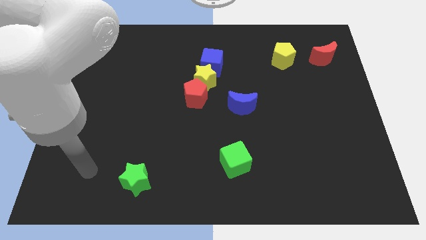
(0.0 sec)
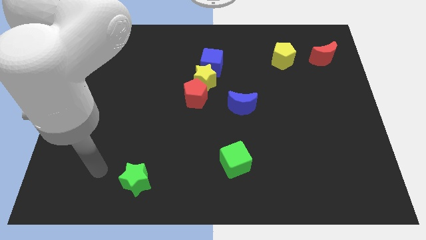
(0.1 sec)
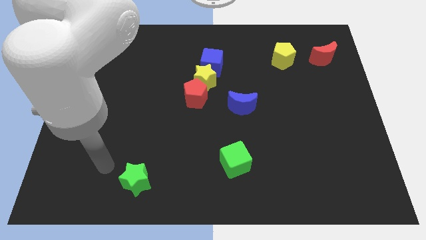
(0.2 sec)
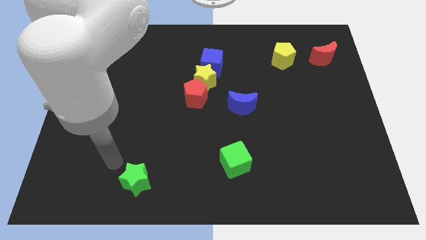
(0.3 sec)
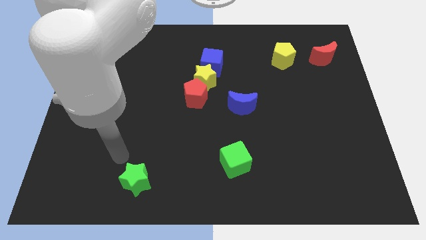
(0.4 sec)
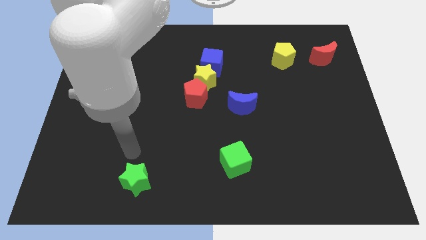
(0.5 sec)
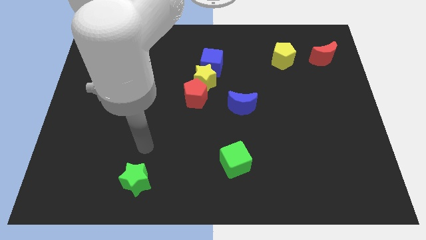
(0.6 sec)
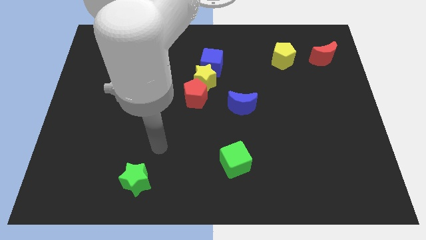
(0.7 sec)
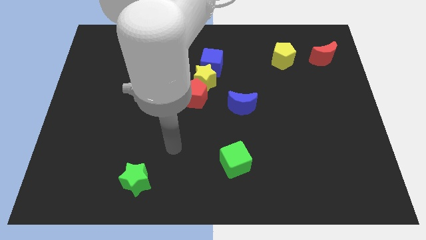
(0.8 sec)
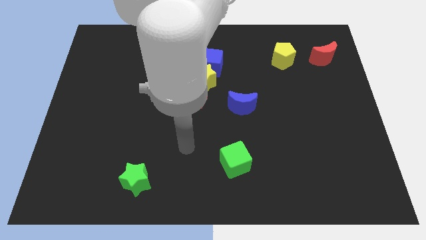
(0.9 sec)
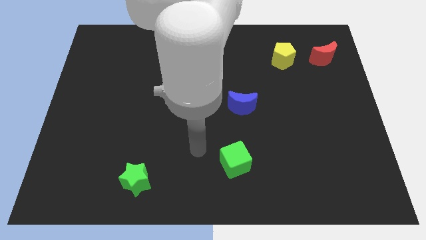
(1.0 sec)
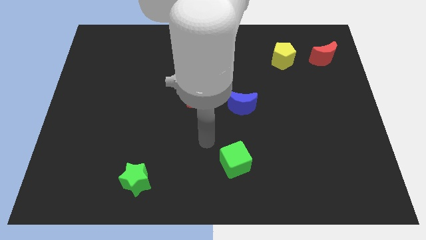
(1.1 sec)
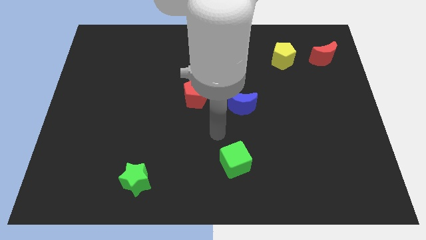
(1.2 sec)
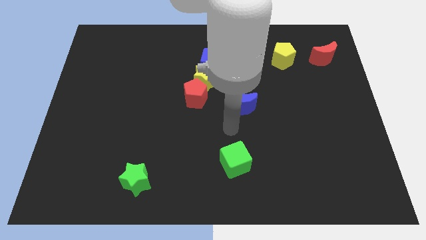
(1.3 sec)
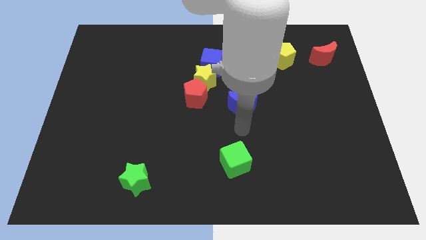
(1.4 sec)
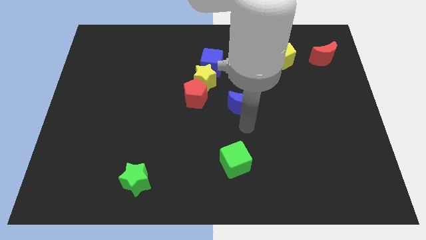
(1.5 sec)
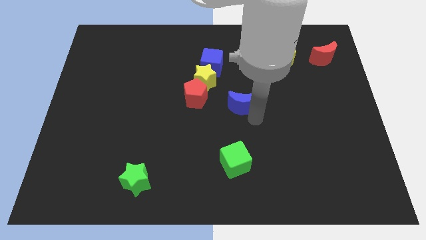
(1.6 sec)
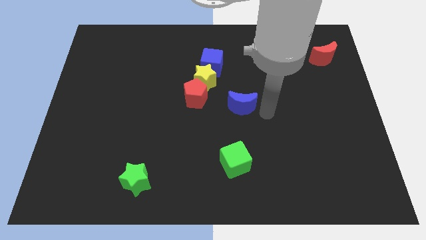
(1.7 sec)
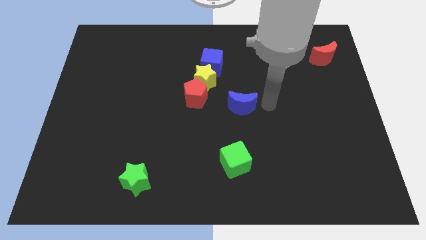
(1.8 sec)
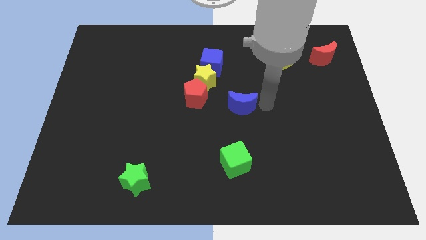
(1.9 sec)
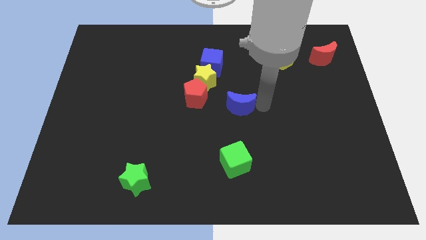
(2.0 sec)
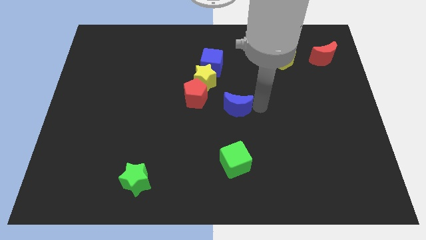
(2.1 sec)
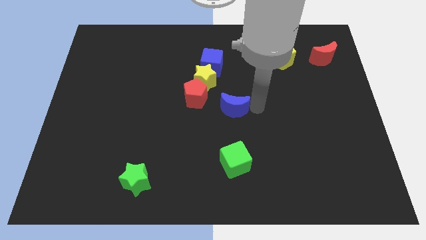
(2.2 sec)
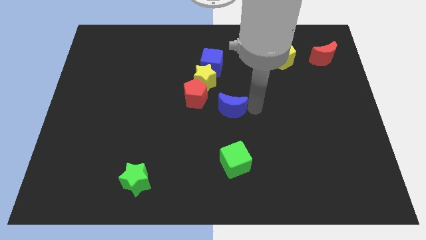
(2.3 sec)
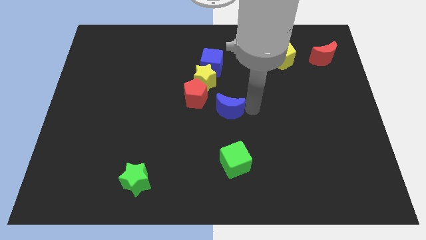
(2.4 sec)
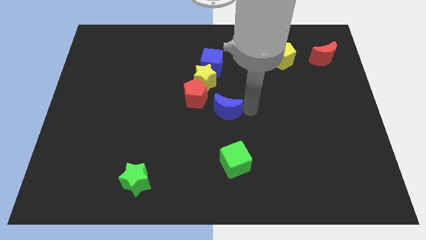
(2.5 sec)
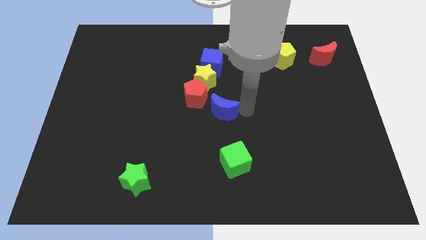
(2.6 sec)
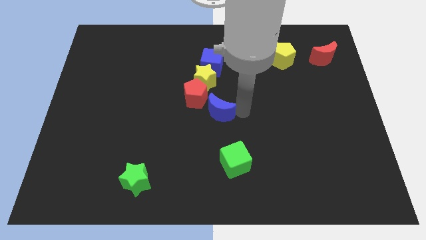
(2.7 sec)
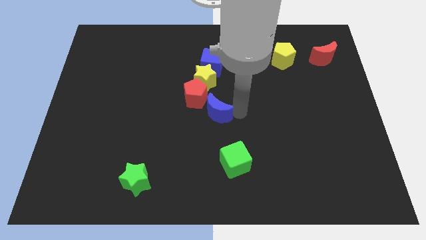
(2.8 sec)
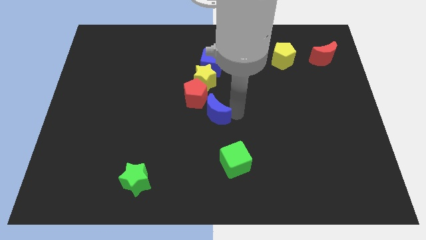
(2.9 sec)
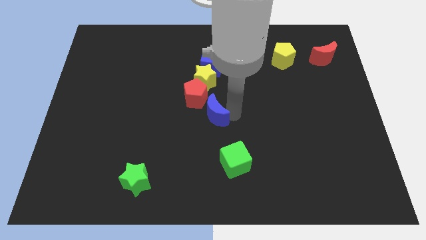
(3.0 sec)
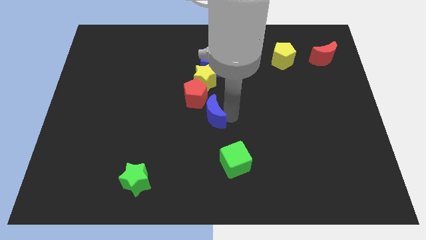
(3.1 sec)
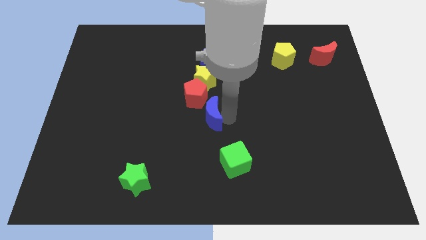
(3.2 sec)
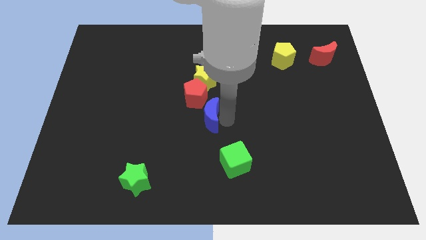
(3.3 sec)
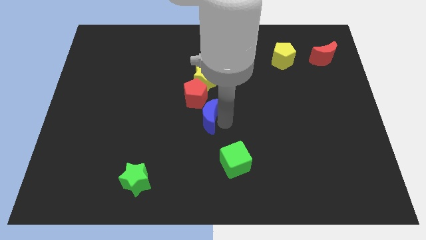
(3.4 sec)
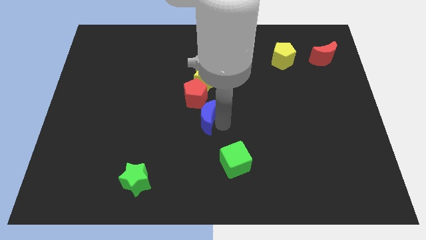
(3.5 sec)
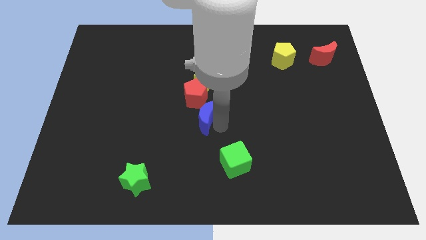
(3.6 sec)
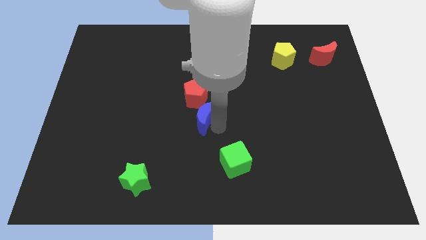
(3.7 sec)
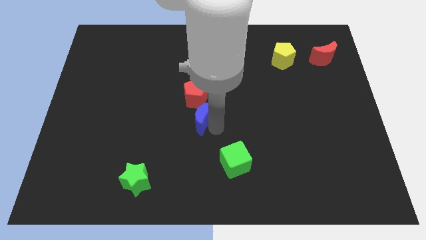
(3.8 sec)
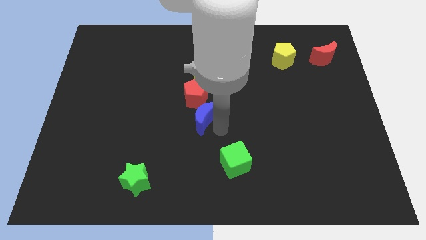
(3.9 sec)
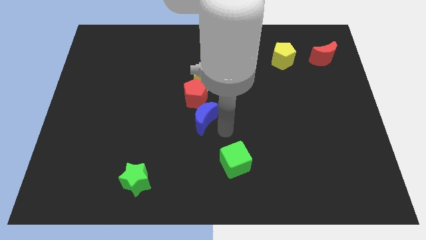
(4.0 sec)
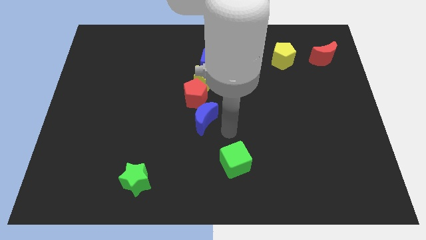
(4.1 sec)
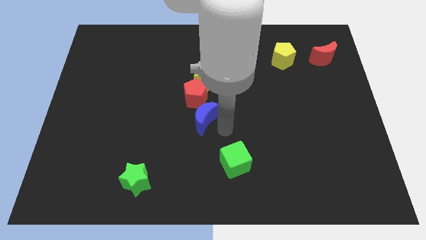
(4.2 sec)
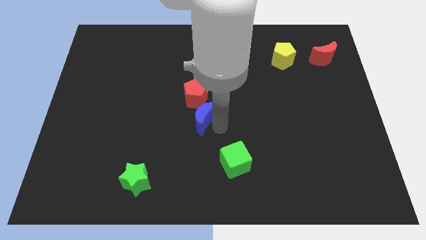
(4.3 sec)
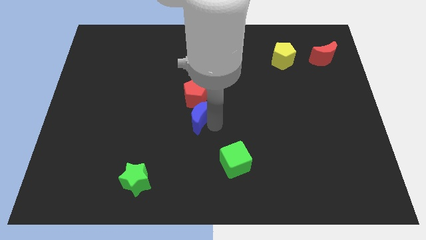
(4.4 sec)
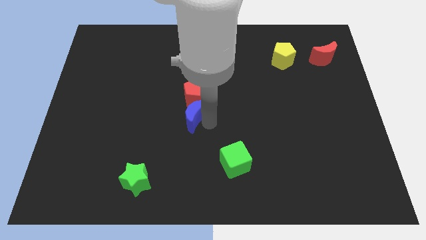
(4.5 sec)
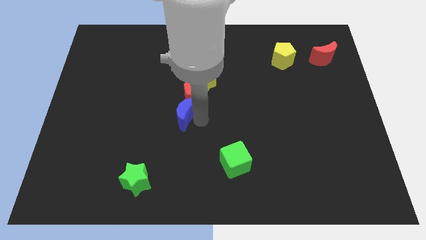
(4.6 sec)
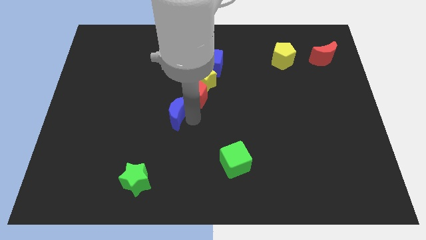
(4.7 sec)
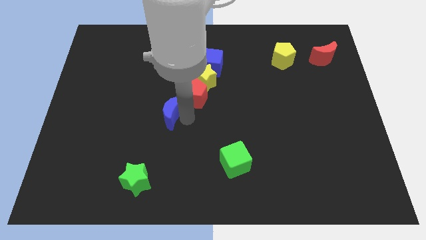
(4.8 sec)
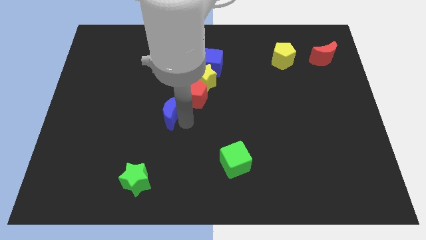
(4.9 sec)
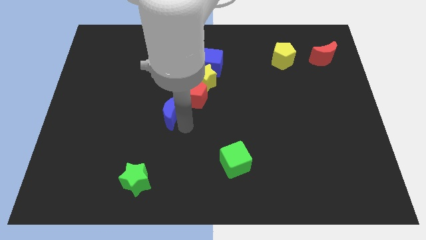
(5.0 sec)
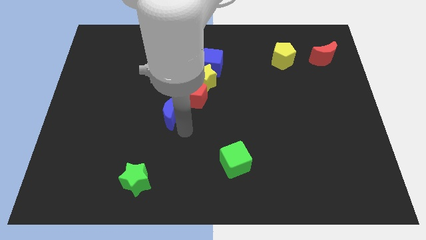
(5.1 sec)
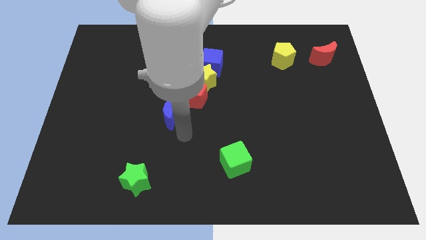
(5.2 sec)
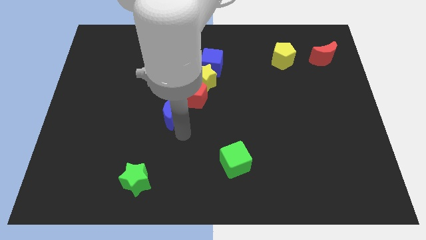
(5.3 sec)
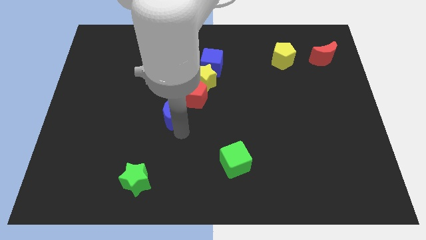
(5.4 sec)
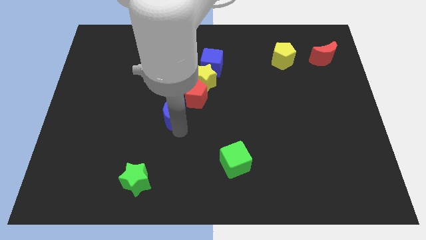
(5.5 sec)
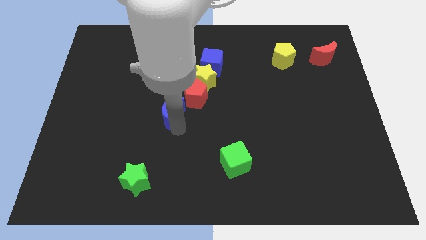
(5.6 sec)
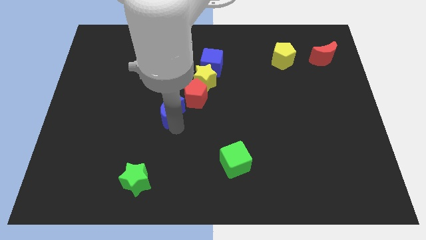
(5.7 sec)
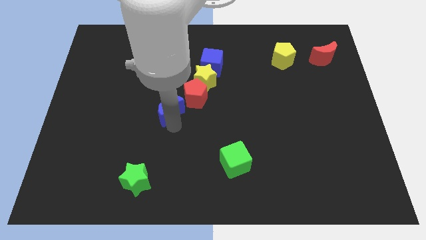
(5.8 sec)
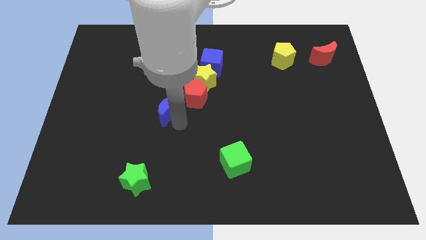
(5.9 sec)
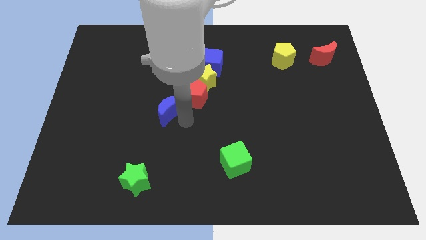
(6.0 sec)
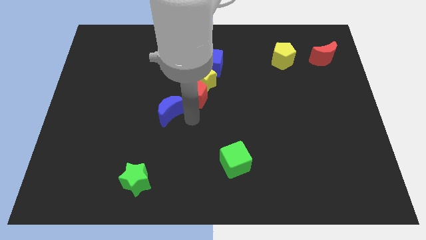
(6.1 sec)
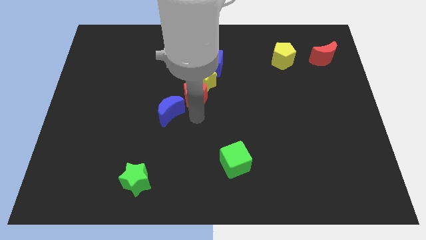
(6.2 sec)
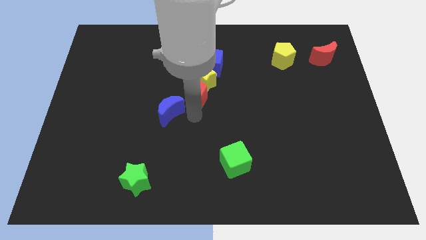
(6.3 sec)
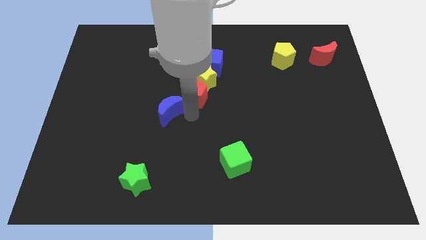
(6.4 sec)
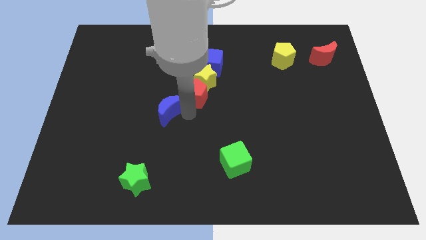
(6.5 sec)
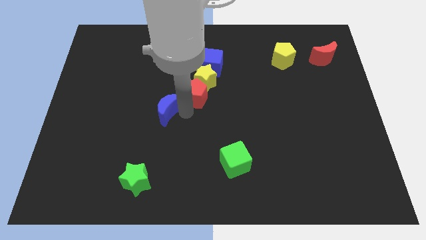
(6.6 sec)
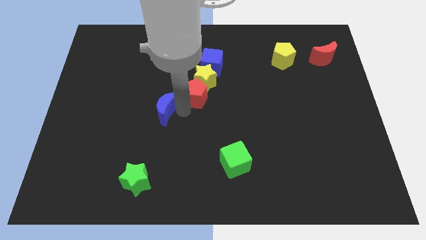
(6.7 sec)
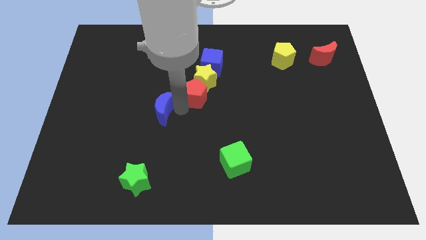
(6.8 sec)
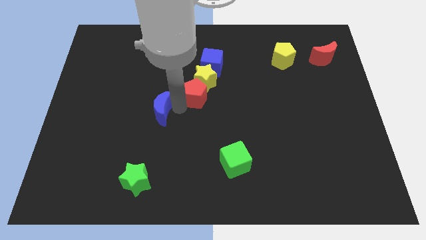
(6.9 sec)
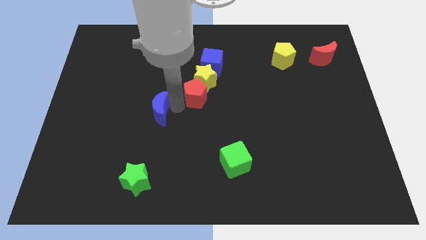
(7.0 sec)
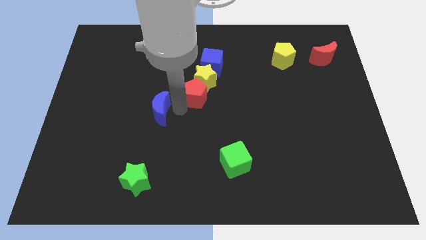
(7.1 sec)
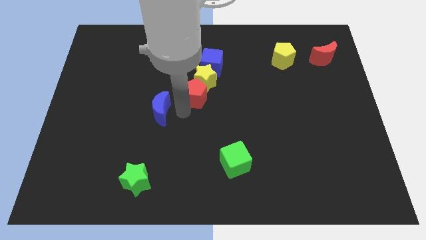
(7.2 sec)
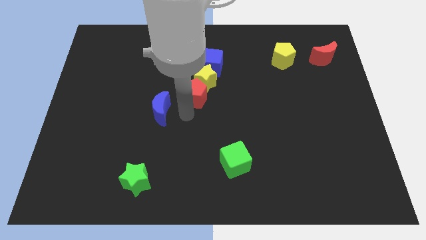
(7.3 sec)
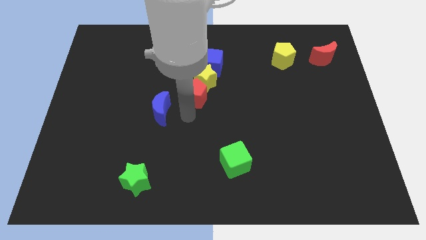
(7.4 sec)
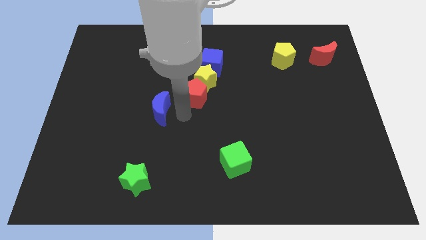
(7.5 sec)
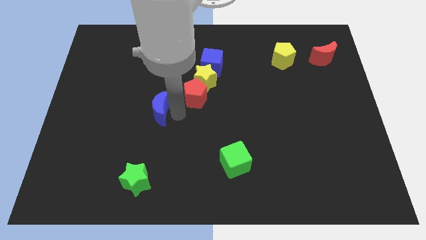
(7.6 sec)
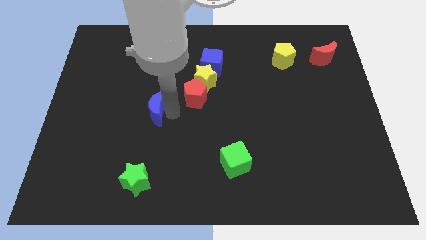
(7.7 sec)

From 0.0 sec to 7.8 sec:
slide the blue moon left
